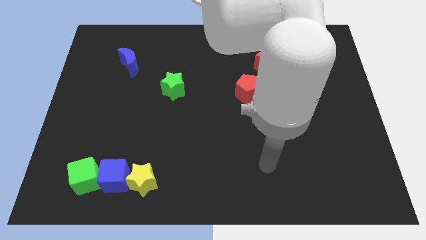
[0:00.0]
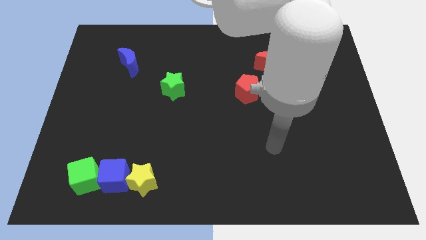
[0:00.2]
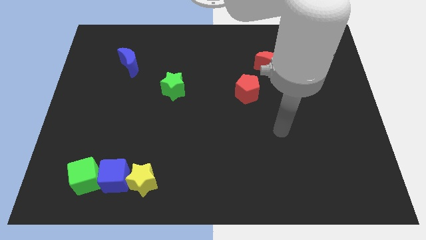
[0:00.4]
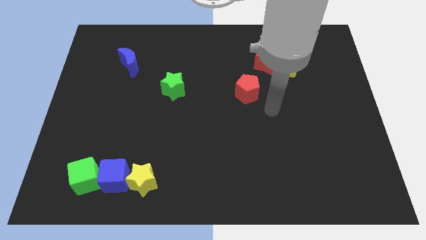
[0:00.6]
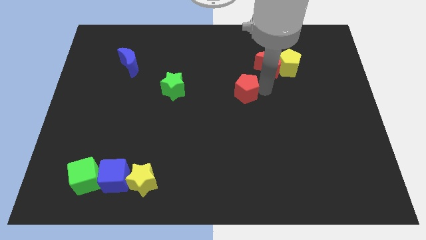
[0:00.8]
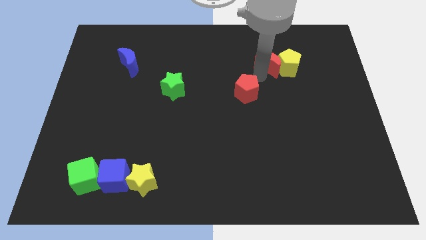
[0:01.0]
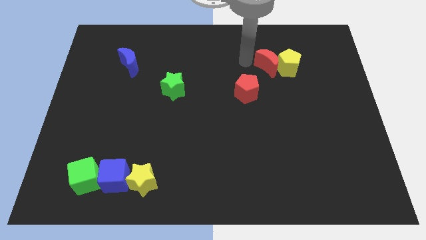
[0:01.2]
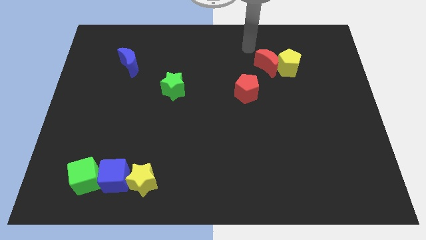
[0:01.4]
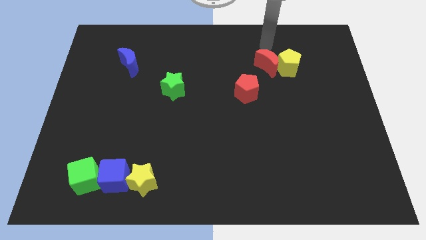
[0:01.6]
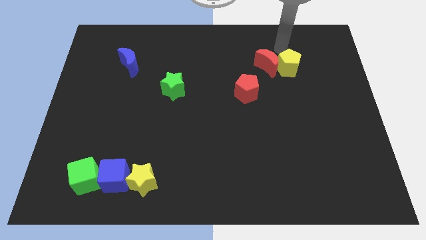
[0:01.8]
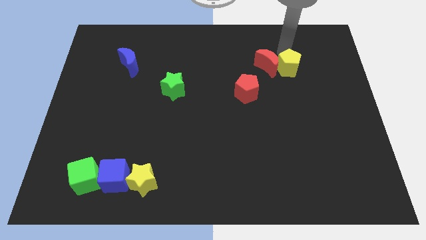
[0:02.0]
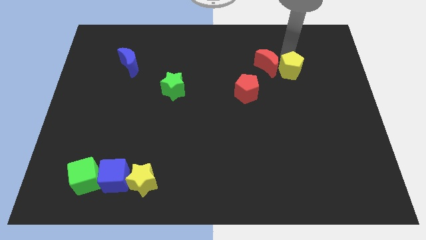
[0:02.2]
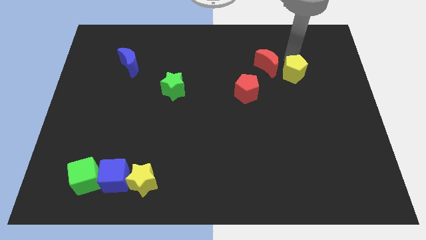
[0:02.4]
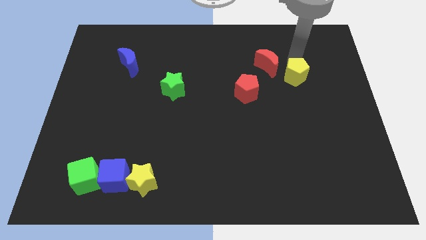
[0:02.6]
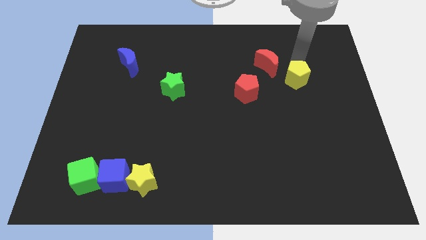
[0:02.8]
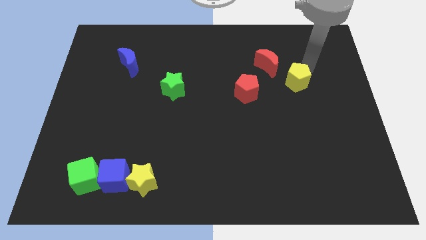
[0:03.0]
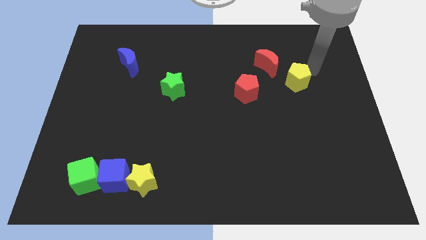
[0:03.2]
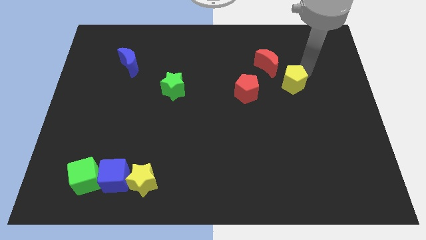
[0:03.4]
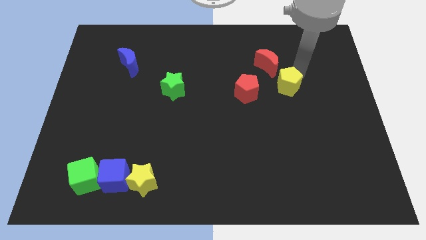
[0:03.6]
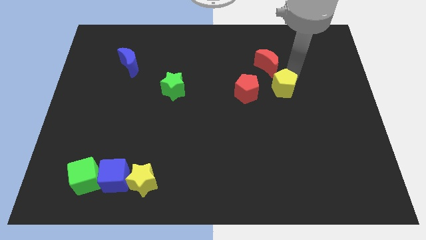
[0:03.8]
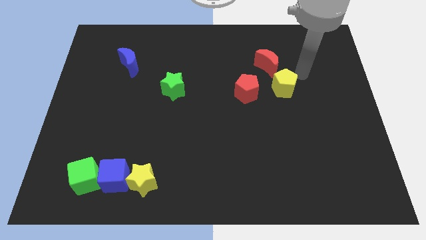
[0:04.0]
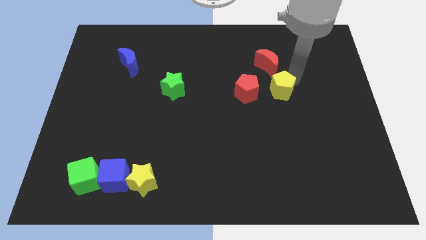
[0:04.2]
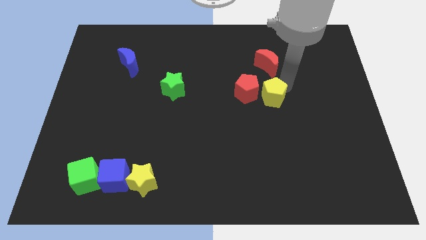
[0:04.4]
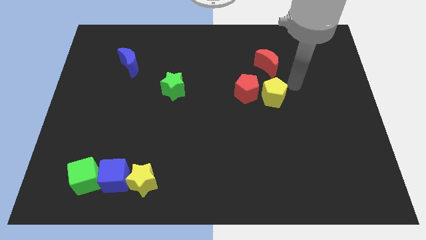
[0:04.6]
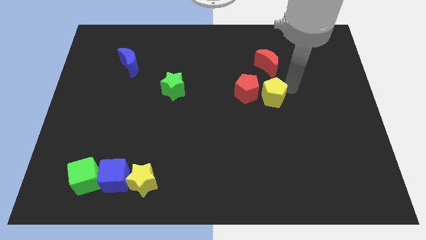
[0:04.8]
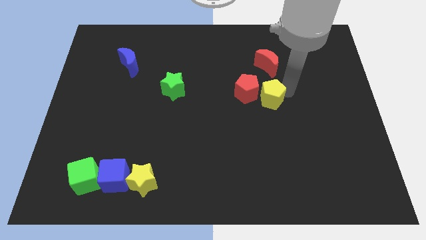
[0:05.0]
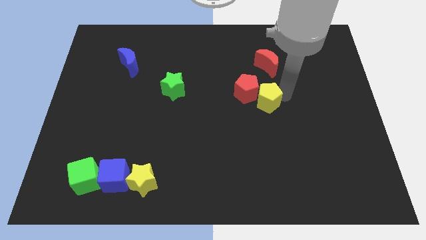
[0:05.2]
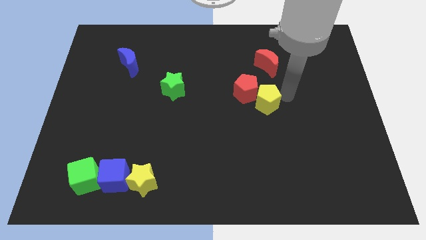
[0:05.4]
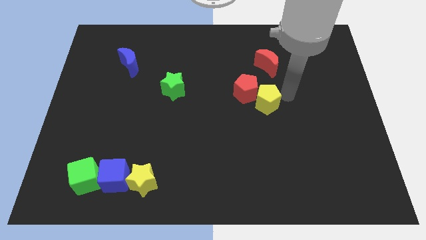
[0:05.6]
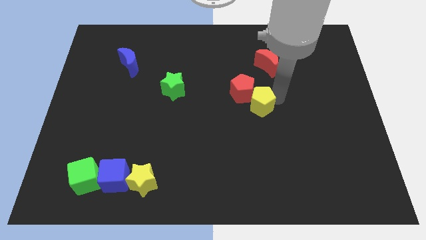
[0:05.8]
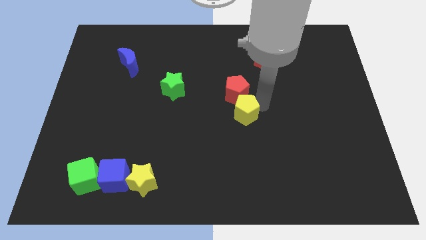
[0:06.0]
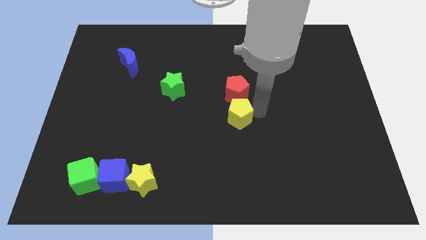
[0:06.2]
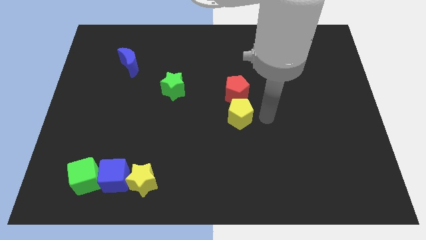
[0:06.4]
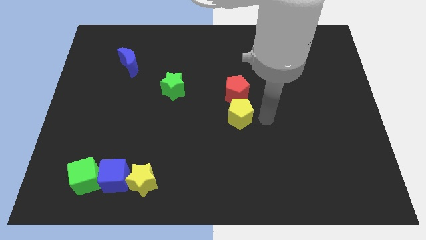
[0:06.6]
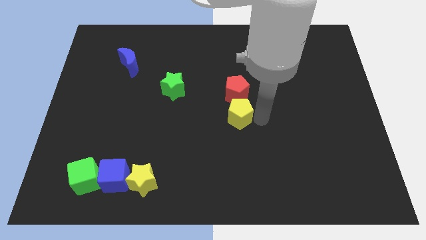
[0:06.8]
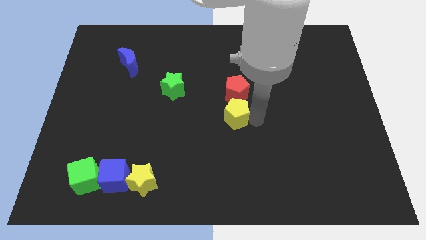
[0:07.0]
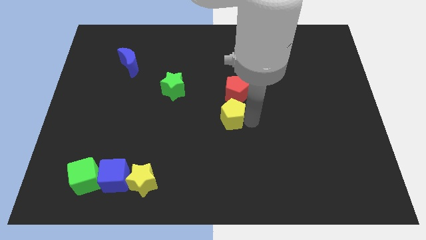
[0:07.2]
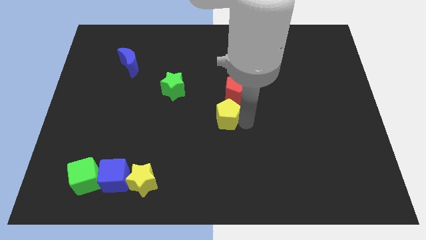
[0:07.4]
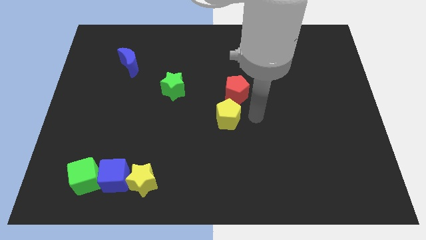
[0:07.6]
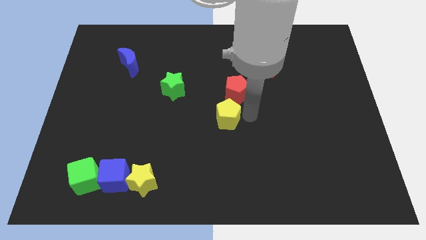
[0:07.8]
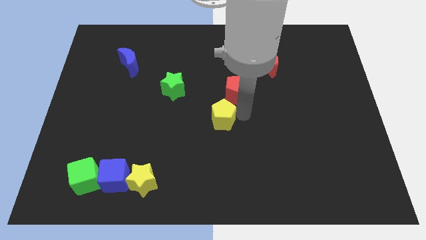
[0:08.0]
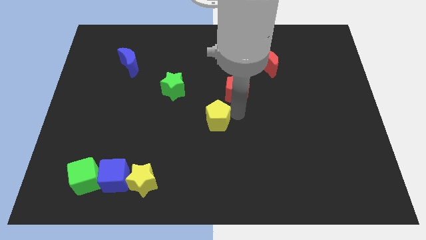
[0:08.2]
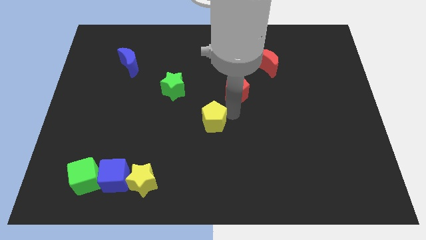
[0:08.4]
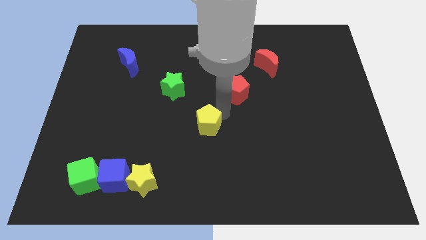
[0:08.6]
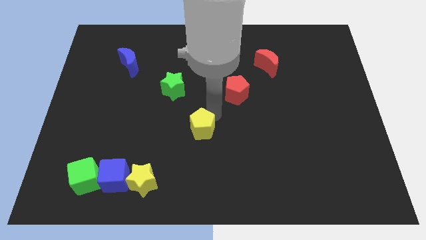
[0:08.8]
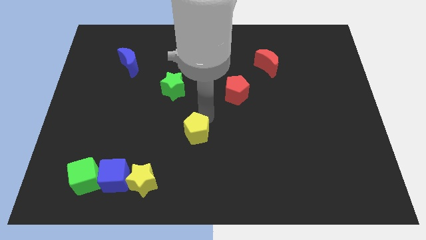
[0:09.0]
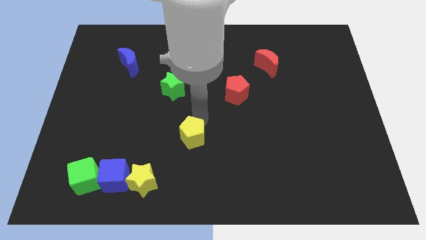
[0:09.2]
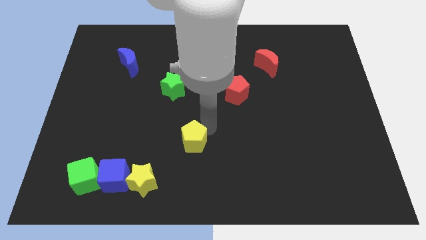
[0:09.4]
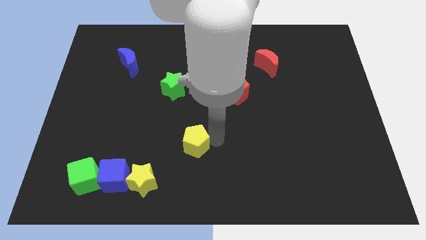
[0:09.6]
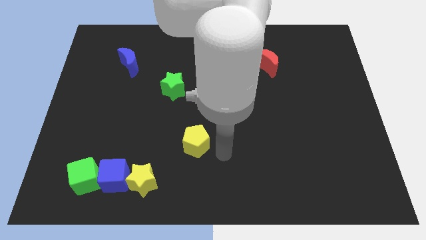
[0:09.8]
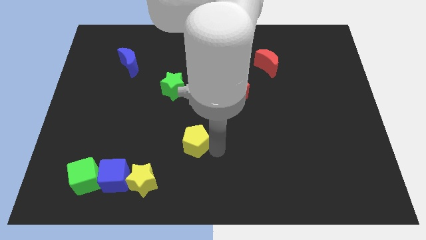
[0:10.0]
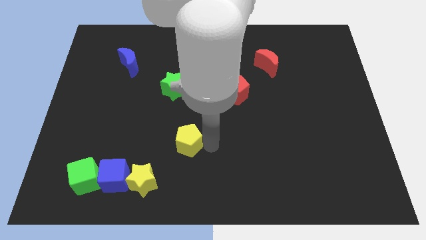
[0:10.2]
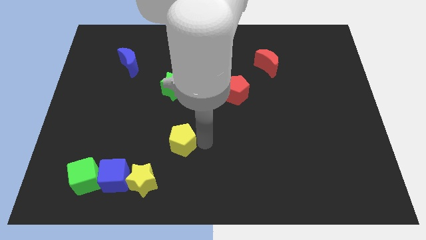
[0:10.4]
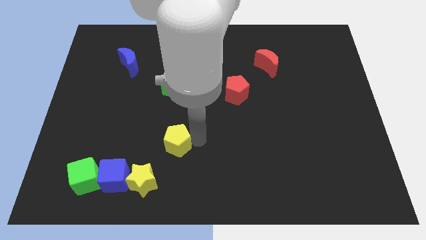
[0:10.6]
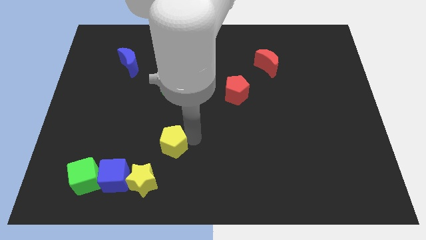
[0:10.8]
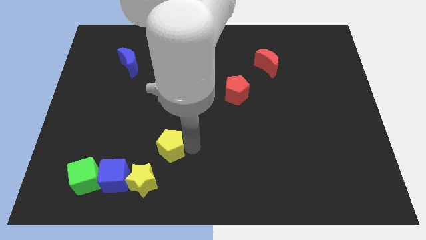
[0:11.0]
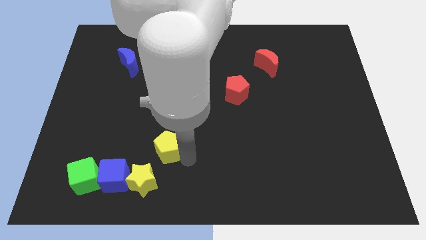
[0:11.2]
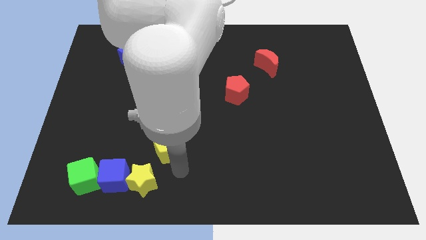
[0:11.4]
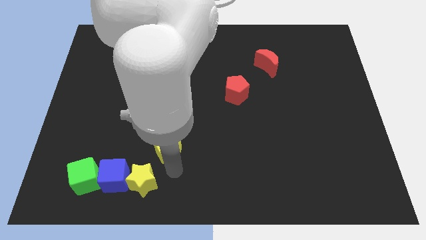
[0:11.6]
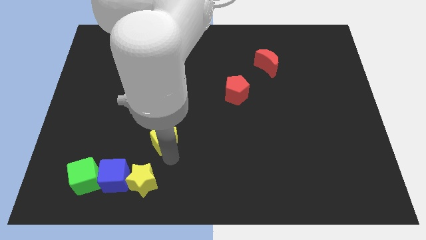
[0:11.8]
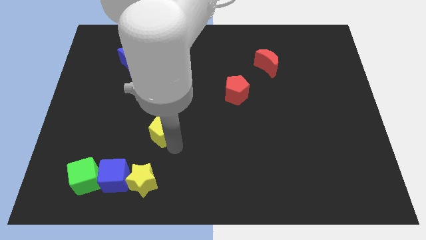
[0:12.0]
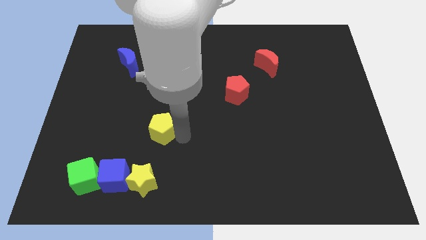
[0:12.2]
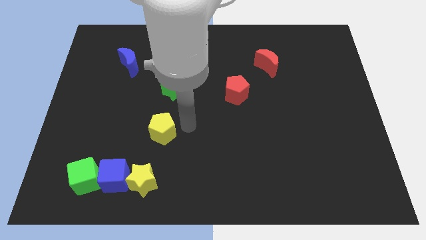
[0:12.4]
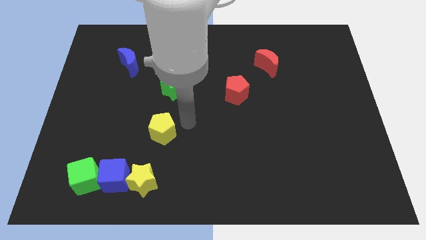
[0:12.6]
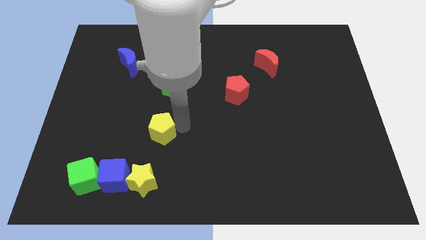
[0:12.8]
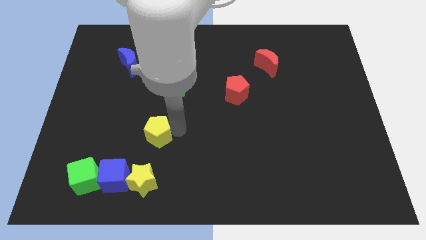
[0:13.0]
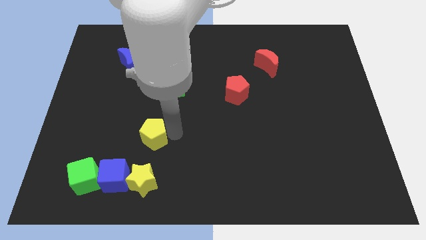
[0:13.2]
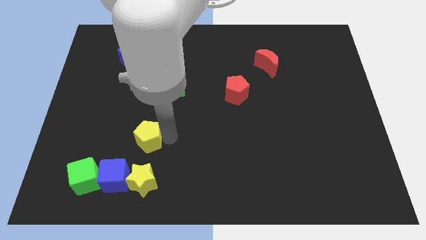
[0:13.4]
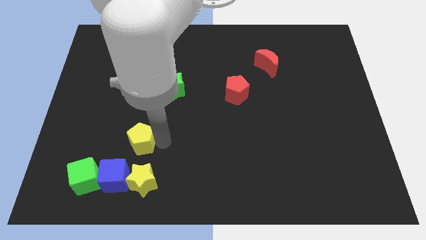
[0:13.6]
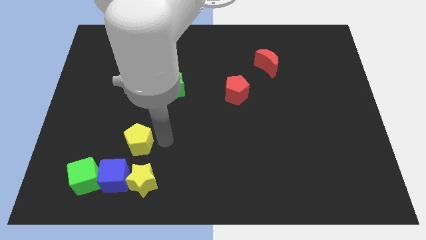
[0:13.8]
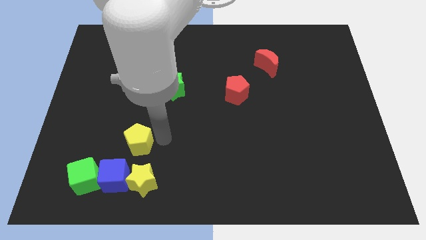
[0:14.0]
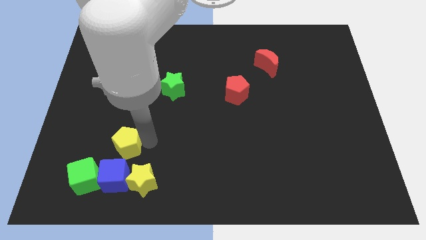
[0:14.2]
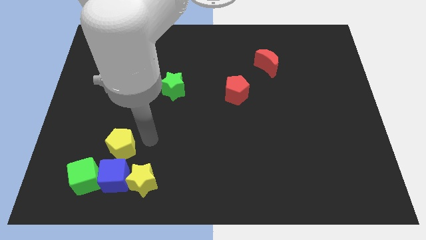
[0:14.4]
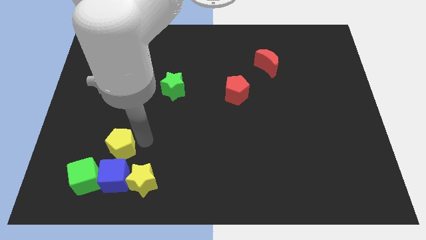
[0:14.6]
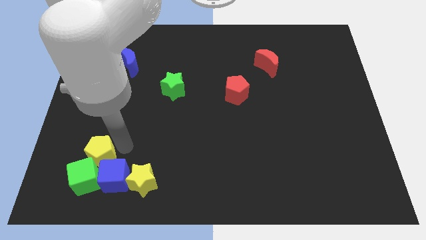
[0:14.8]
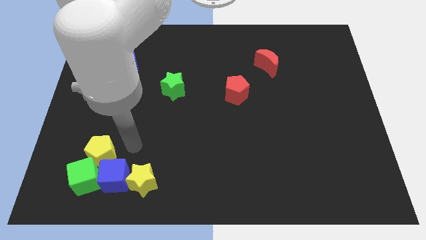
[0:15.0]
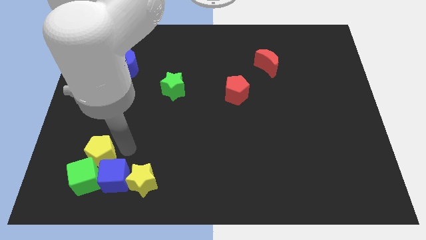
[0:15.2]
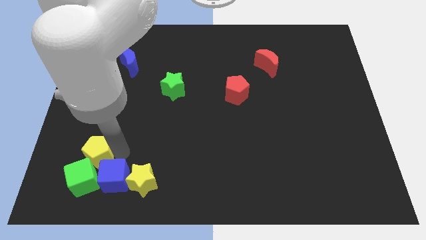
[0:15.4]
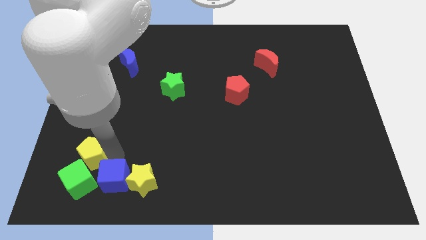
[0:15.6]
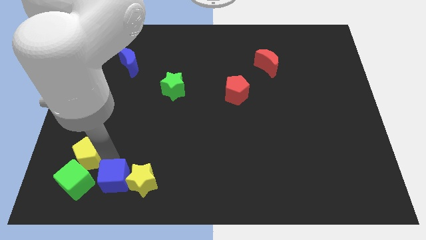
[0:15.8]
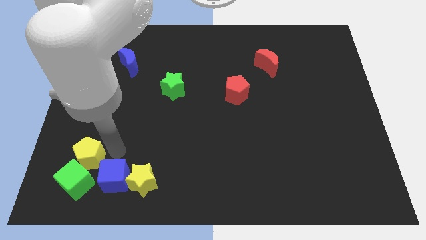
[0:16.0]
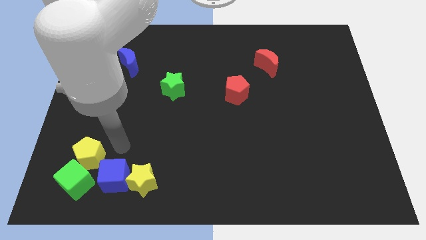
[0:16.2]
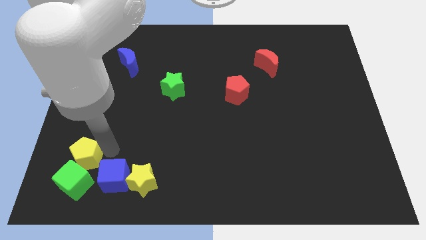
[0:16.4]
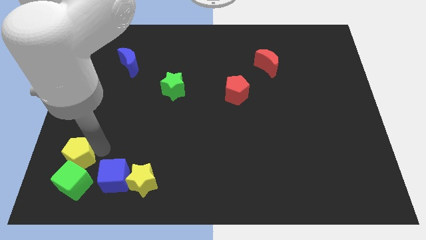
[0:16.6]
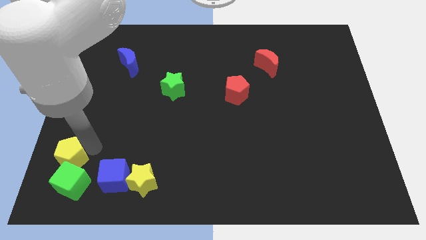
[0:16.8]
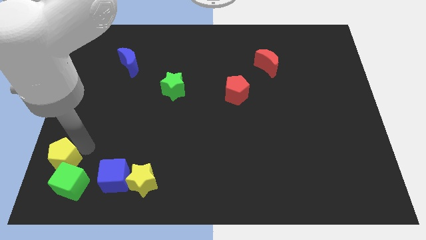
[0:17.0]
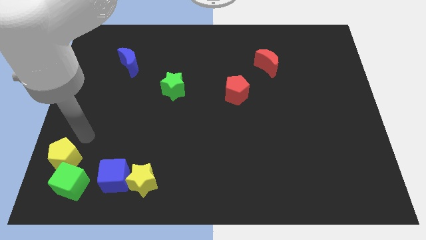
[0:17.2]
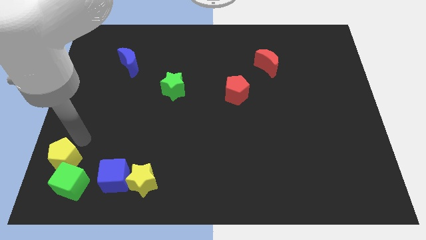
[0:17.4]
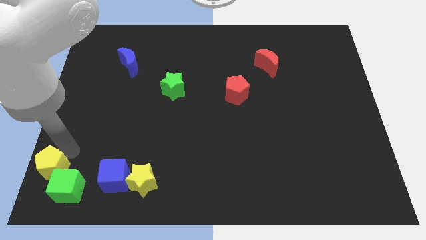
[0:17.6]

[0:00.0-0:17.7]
slide the yellow pentagon to the bottom left
